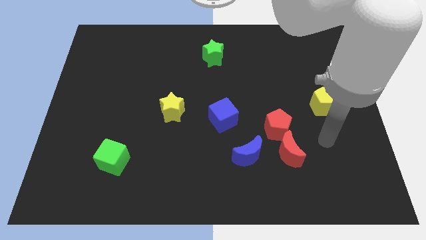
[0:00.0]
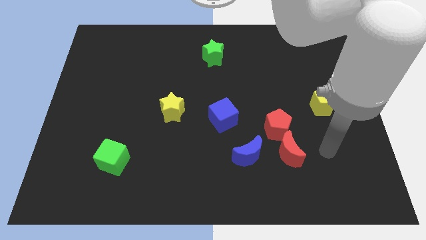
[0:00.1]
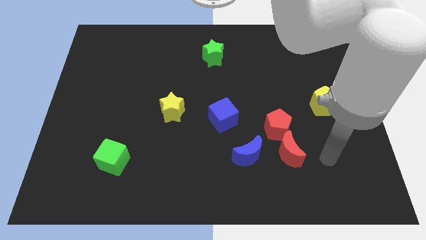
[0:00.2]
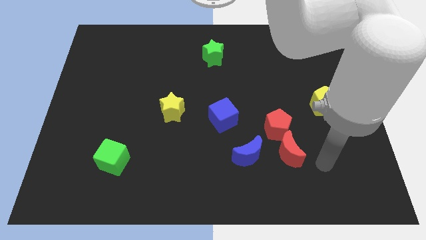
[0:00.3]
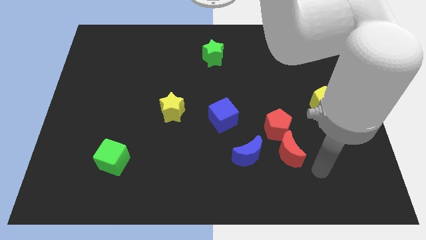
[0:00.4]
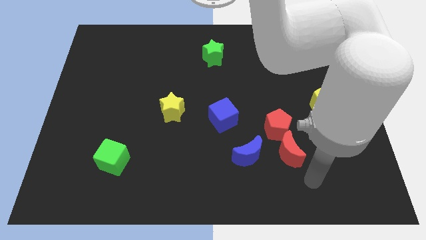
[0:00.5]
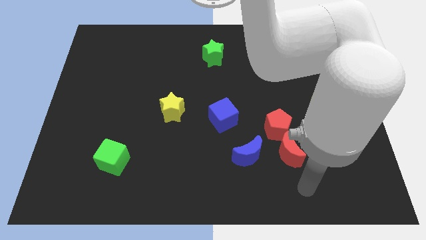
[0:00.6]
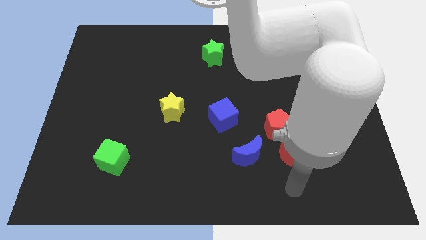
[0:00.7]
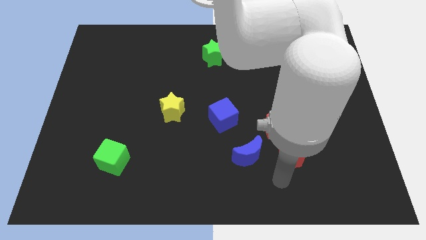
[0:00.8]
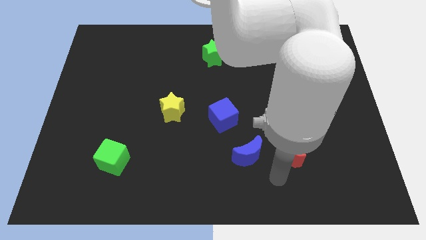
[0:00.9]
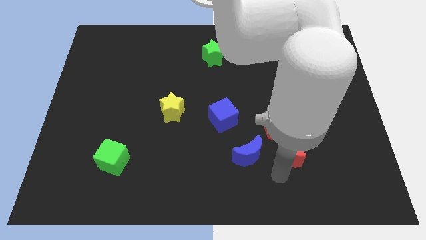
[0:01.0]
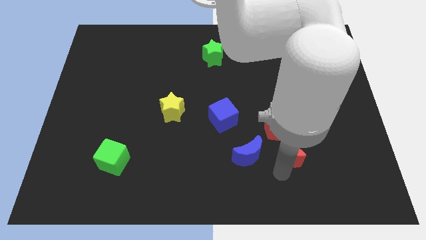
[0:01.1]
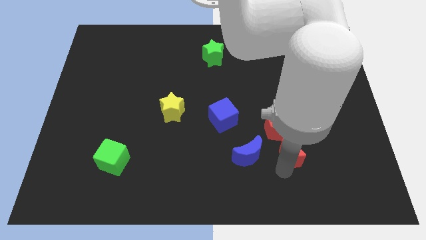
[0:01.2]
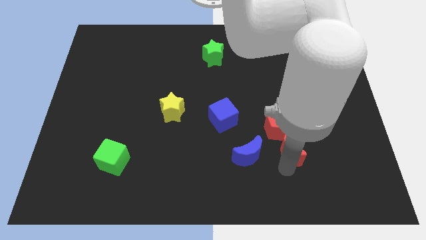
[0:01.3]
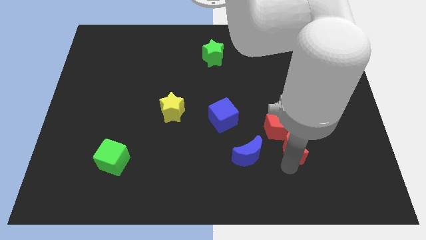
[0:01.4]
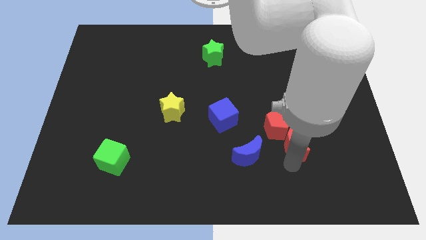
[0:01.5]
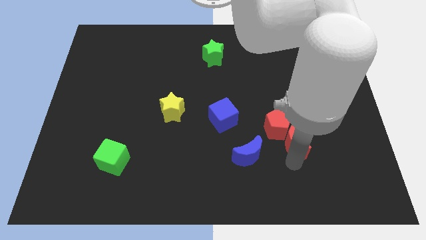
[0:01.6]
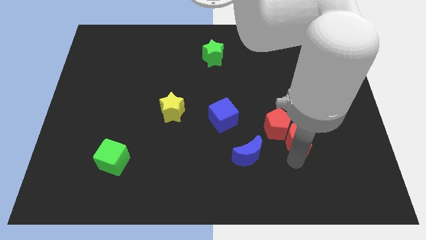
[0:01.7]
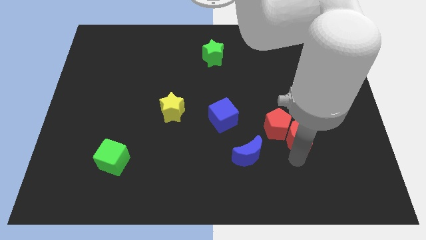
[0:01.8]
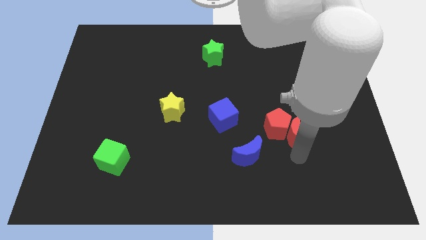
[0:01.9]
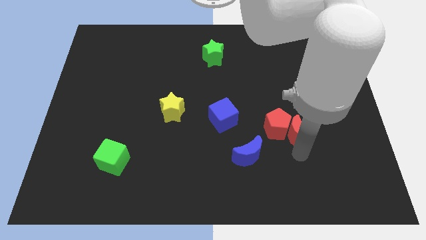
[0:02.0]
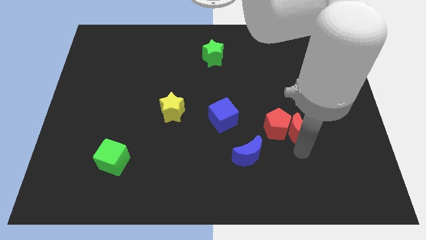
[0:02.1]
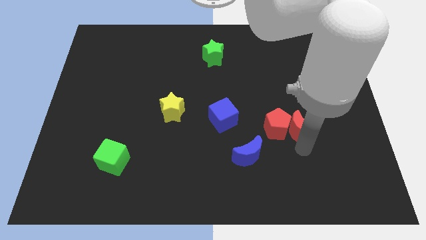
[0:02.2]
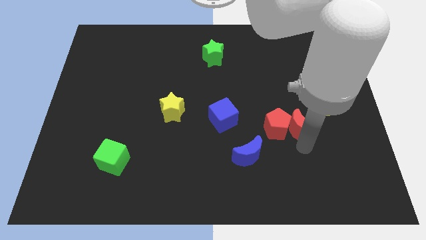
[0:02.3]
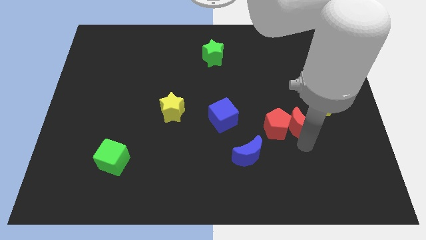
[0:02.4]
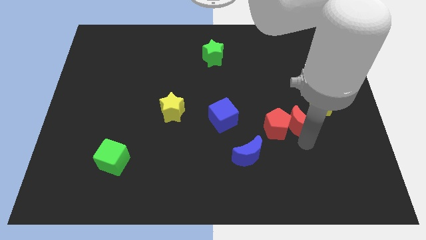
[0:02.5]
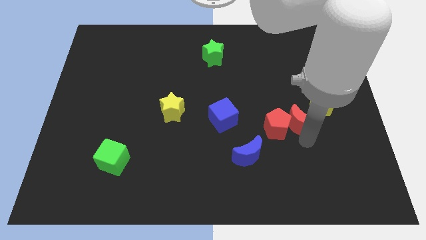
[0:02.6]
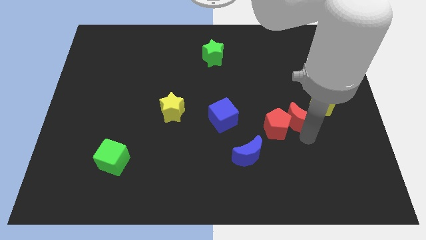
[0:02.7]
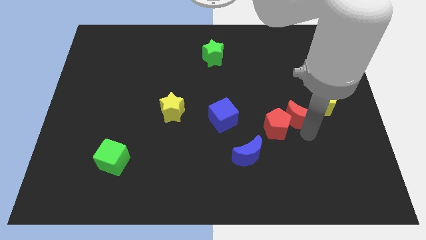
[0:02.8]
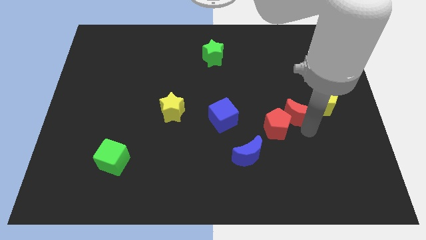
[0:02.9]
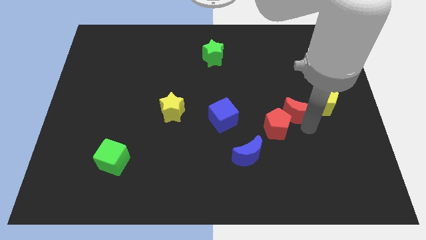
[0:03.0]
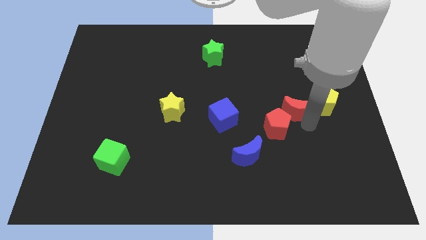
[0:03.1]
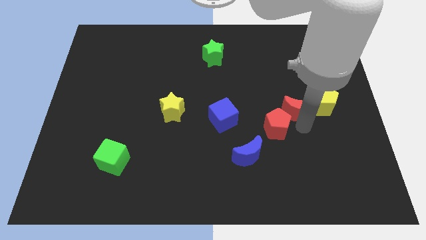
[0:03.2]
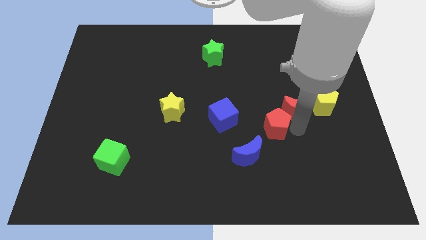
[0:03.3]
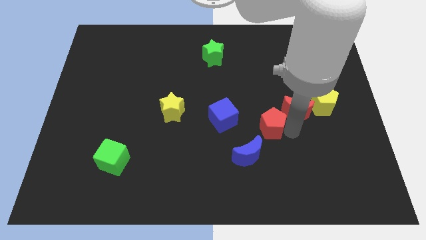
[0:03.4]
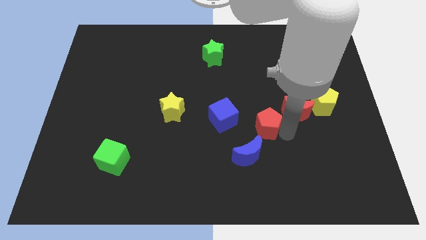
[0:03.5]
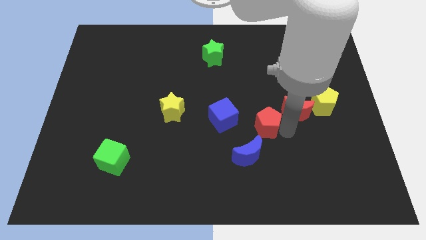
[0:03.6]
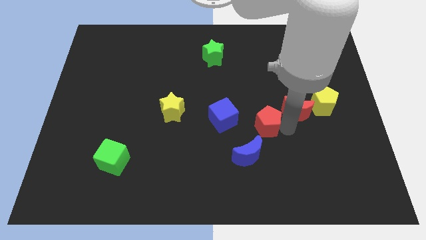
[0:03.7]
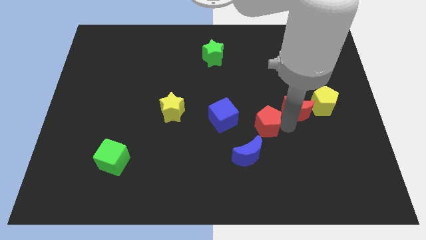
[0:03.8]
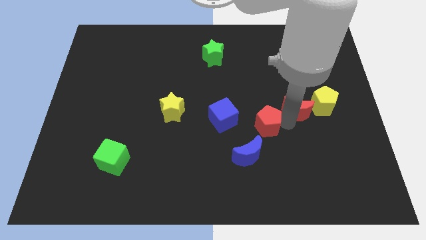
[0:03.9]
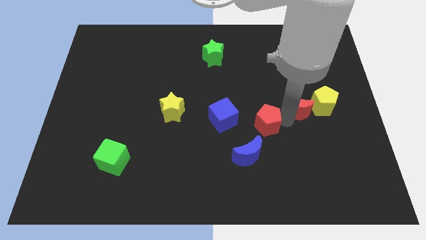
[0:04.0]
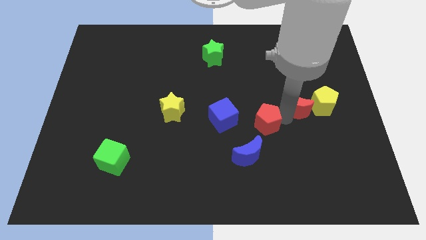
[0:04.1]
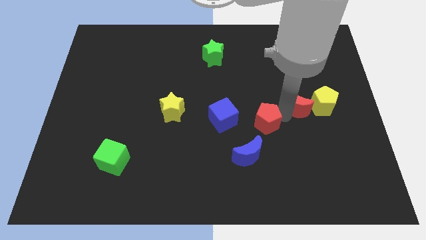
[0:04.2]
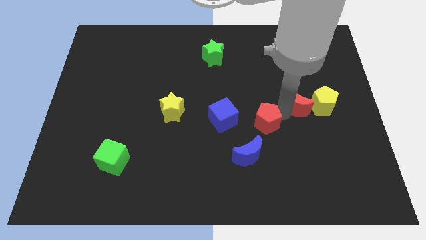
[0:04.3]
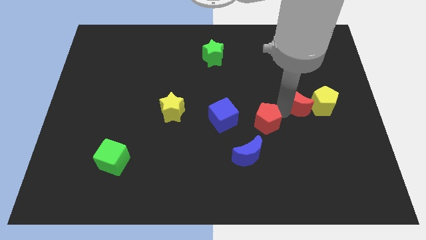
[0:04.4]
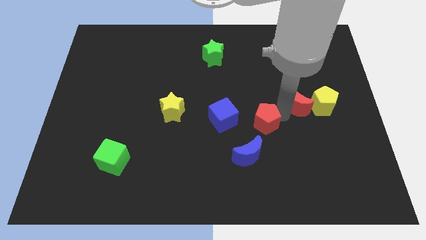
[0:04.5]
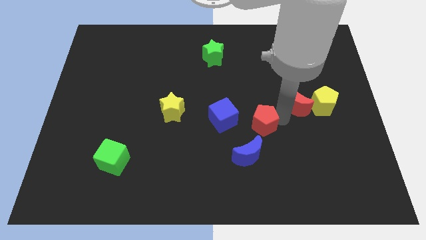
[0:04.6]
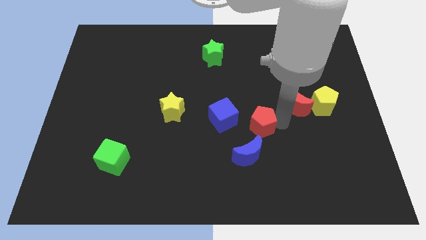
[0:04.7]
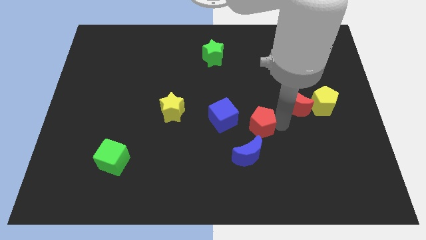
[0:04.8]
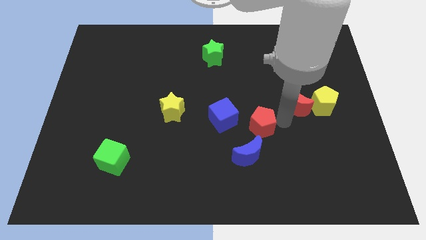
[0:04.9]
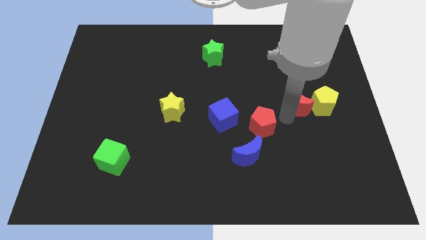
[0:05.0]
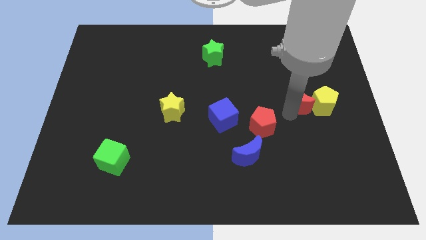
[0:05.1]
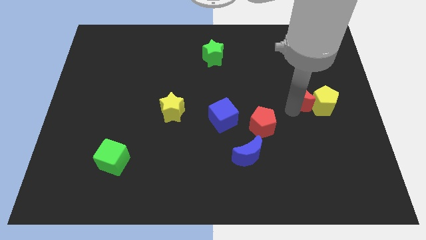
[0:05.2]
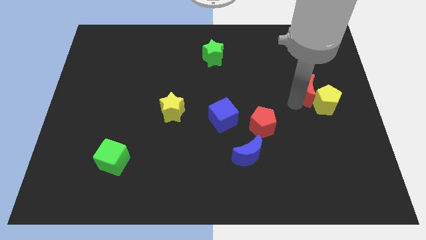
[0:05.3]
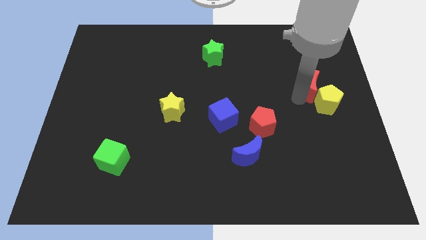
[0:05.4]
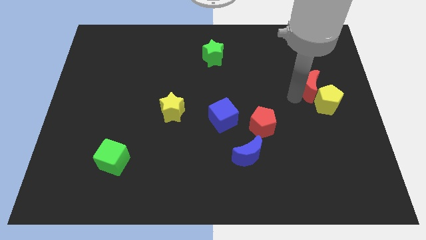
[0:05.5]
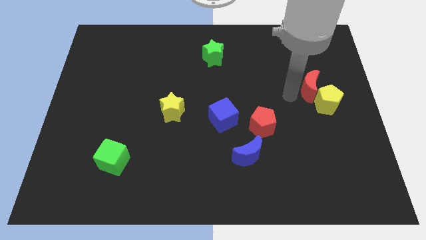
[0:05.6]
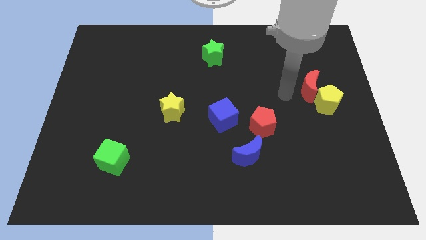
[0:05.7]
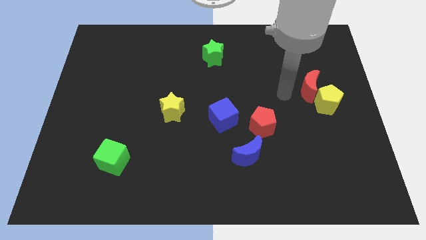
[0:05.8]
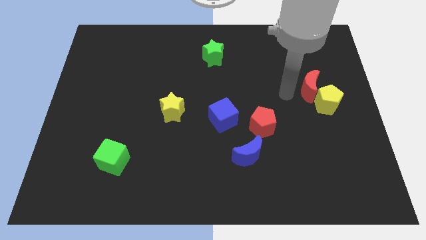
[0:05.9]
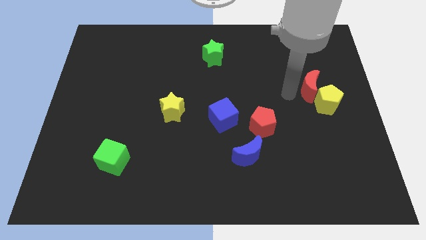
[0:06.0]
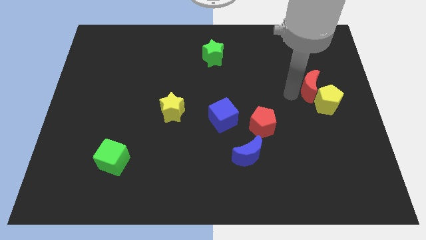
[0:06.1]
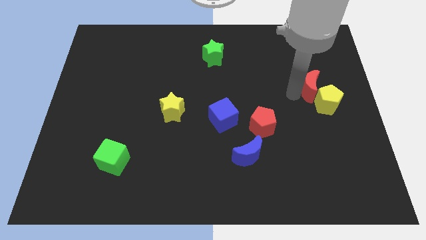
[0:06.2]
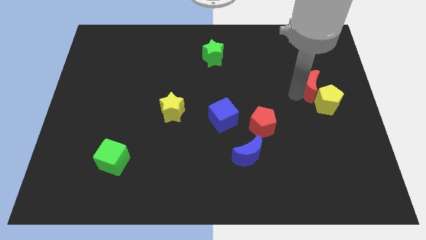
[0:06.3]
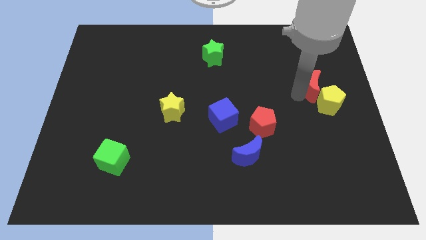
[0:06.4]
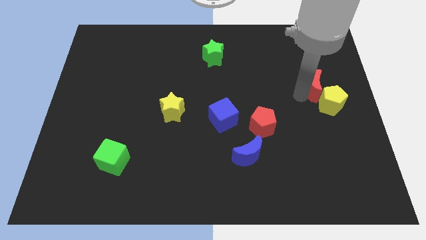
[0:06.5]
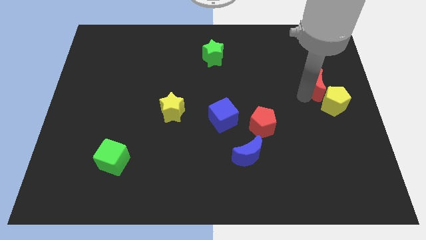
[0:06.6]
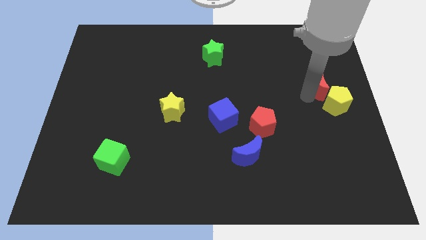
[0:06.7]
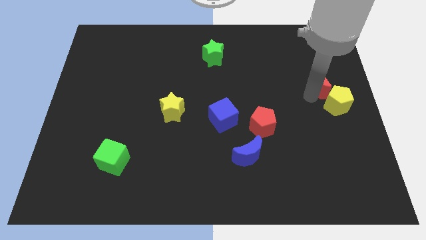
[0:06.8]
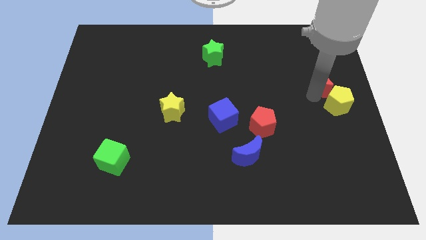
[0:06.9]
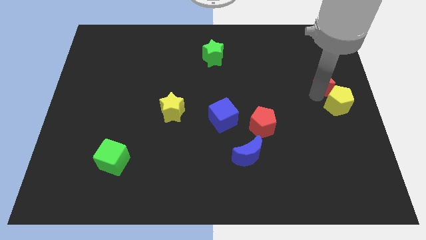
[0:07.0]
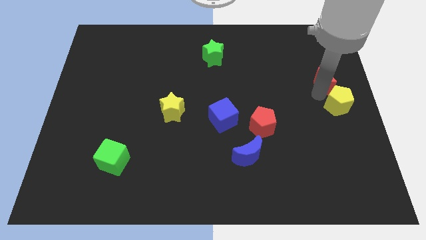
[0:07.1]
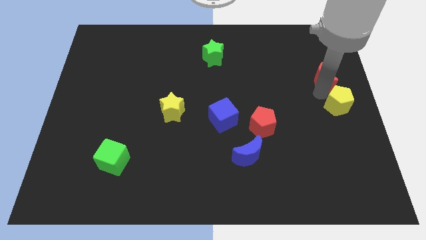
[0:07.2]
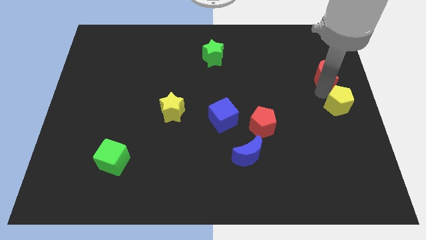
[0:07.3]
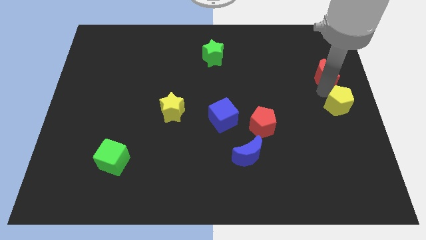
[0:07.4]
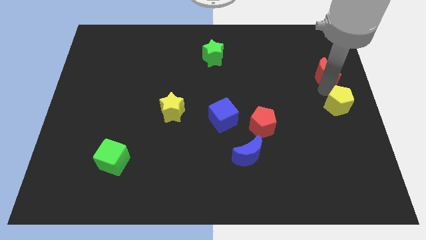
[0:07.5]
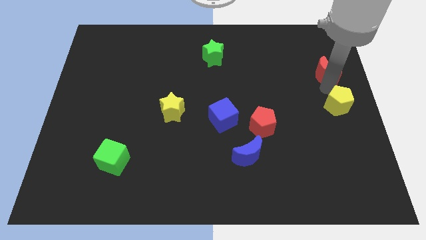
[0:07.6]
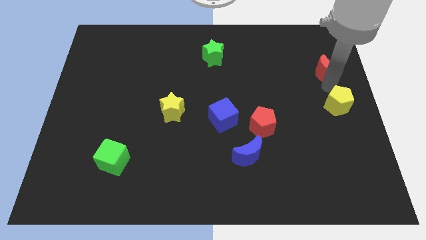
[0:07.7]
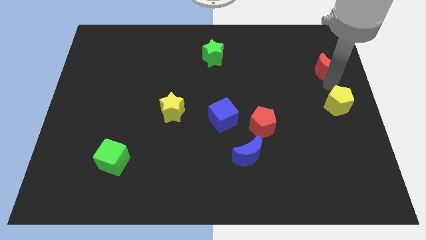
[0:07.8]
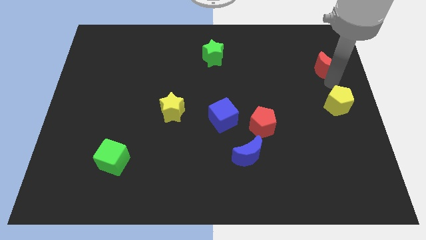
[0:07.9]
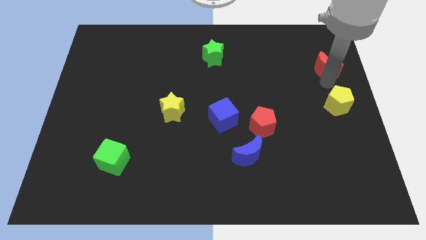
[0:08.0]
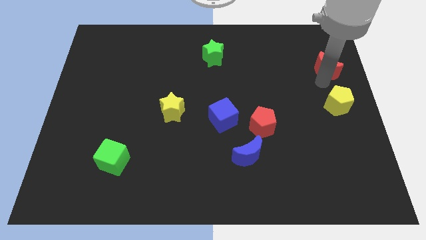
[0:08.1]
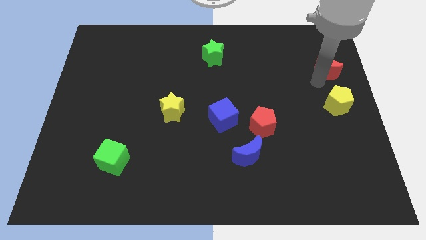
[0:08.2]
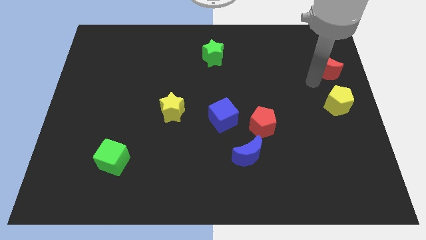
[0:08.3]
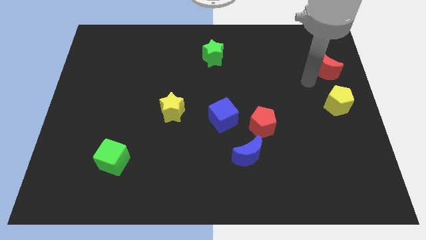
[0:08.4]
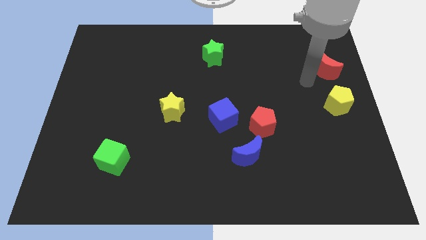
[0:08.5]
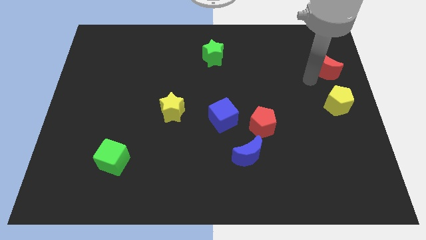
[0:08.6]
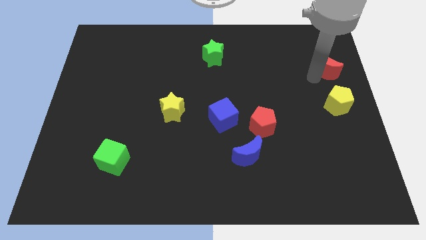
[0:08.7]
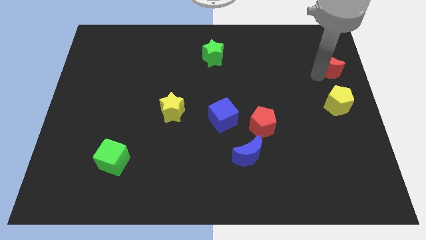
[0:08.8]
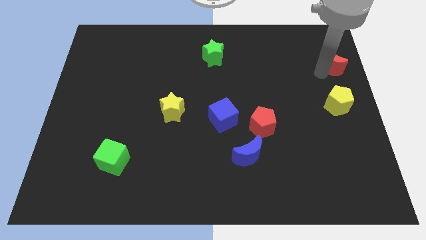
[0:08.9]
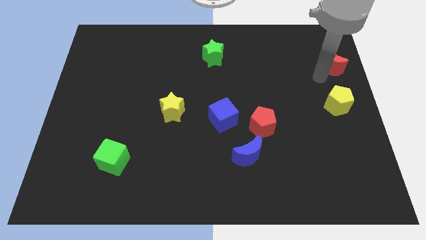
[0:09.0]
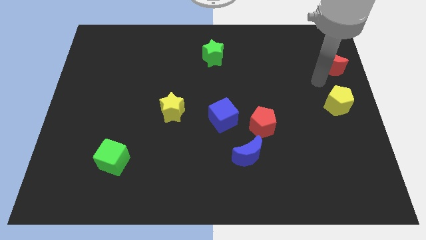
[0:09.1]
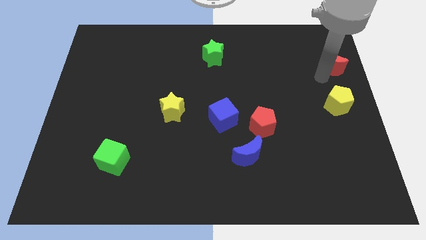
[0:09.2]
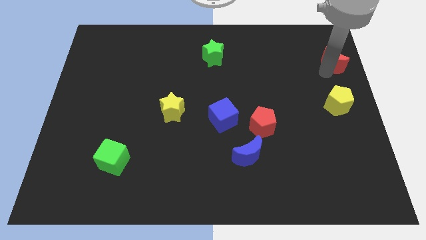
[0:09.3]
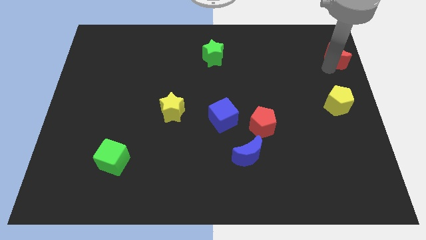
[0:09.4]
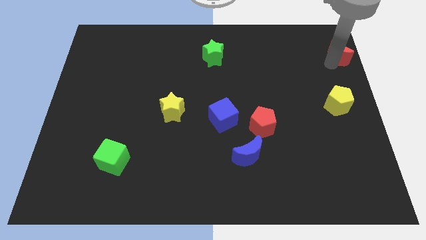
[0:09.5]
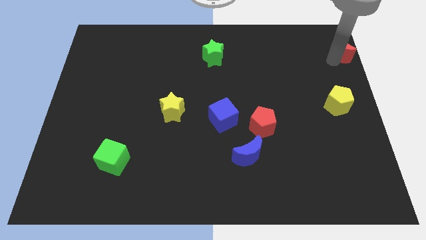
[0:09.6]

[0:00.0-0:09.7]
move the red moon to the top right corner
